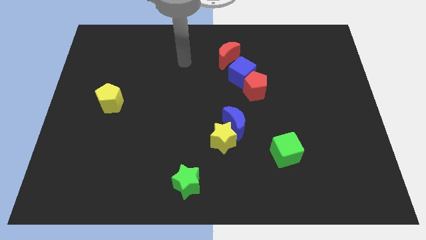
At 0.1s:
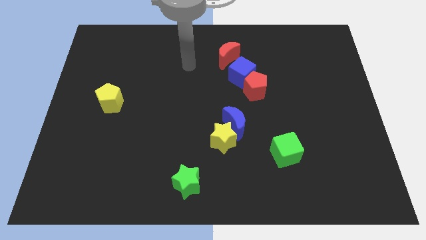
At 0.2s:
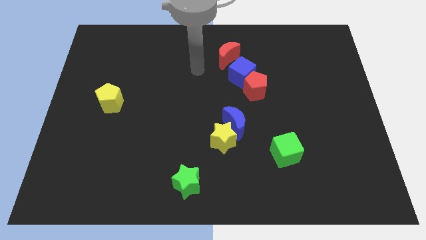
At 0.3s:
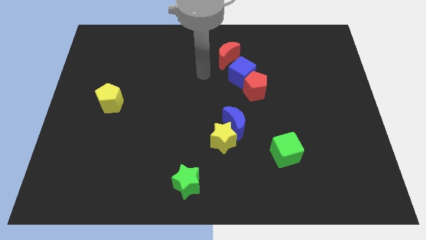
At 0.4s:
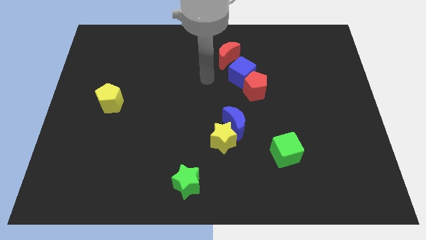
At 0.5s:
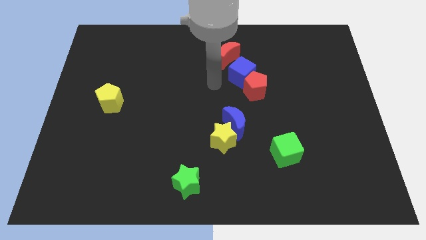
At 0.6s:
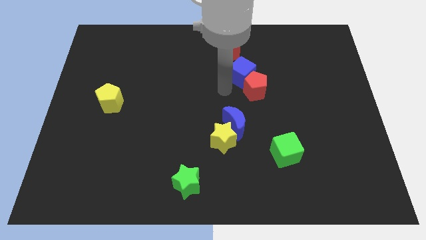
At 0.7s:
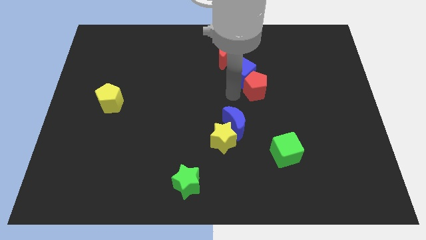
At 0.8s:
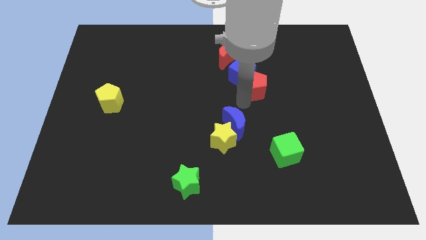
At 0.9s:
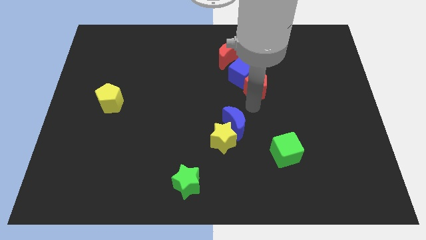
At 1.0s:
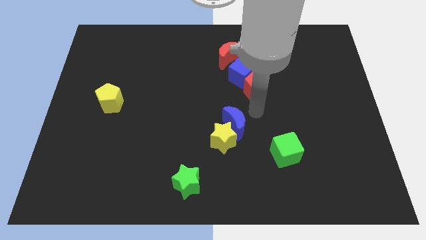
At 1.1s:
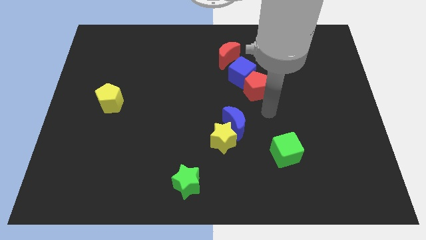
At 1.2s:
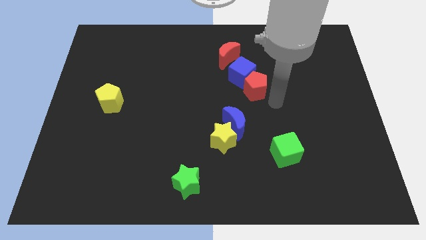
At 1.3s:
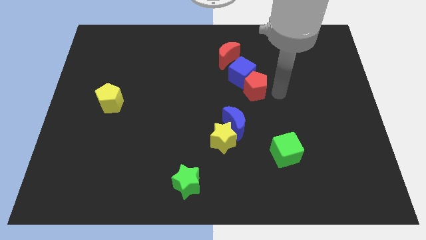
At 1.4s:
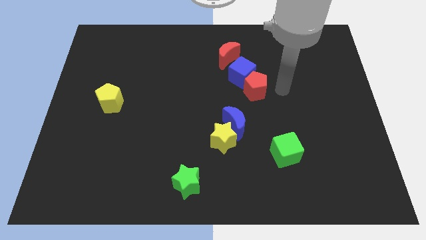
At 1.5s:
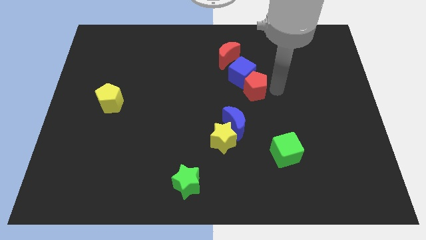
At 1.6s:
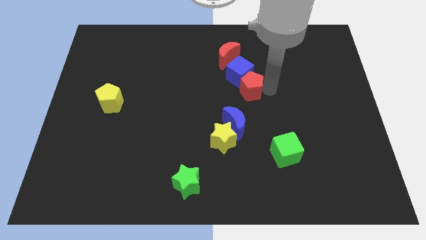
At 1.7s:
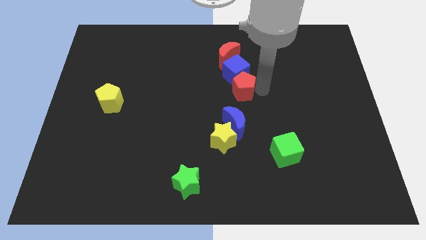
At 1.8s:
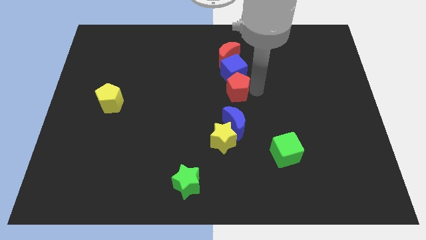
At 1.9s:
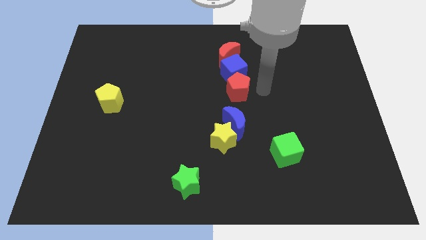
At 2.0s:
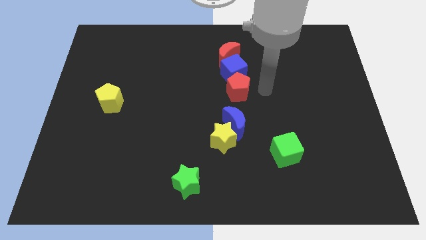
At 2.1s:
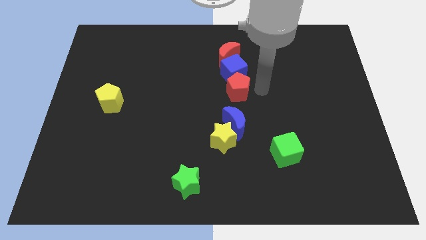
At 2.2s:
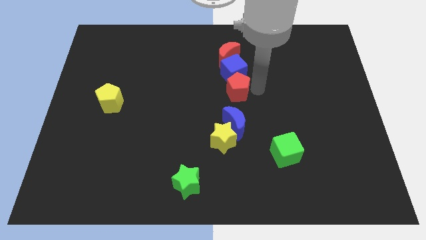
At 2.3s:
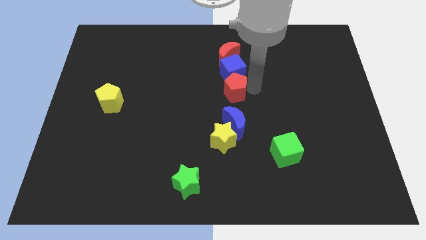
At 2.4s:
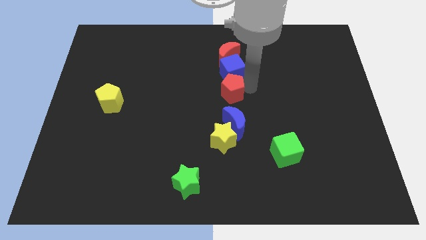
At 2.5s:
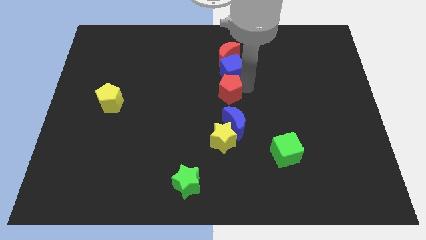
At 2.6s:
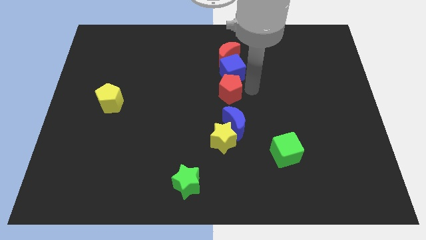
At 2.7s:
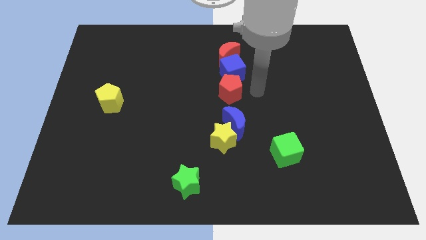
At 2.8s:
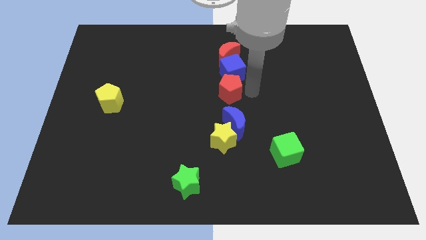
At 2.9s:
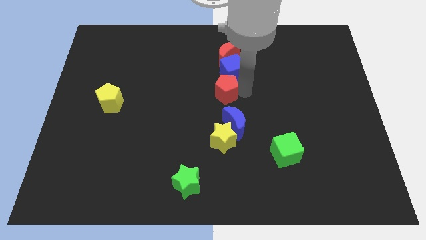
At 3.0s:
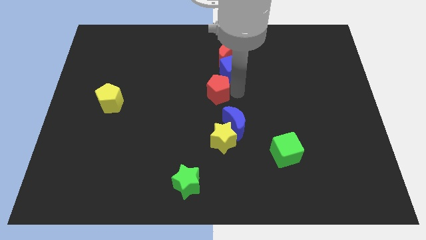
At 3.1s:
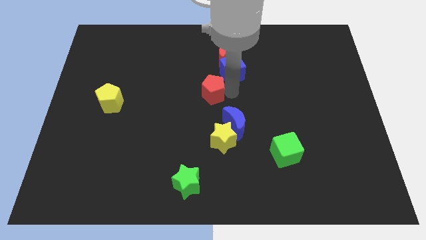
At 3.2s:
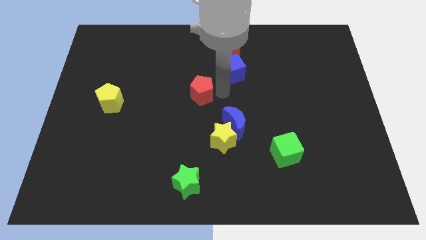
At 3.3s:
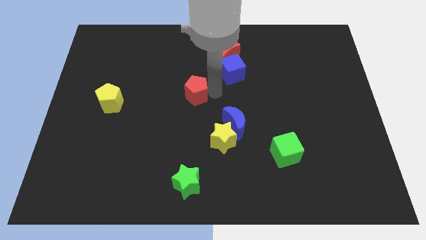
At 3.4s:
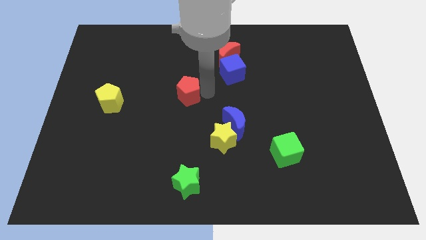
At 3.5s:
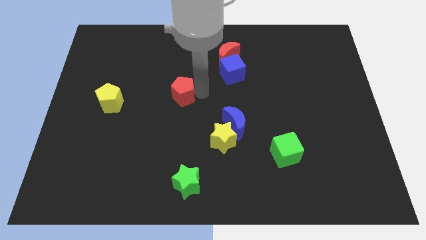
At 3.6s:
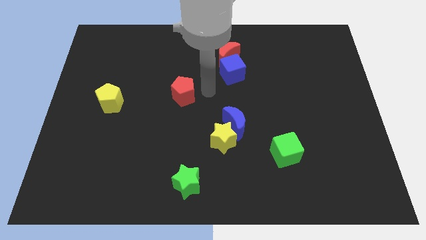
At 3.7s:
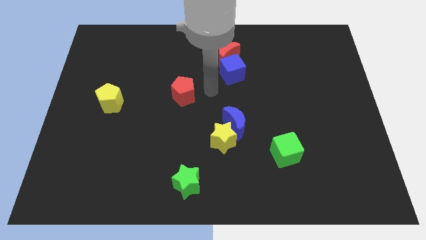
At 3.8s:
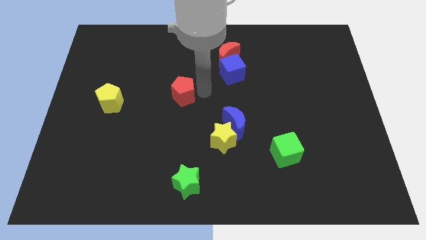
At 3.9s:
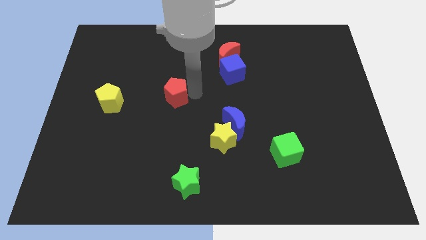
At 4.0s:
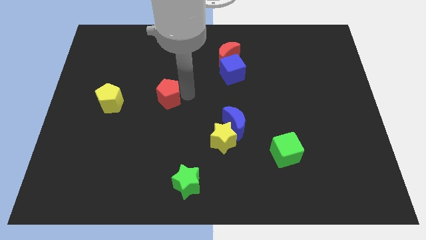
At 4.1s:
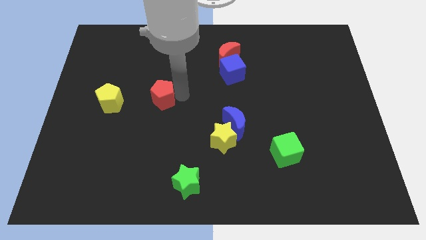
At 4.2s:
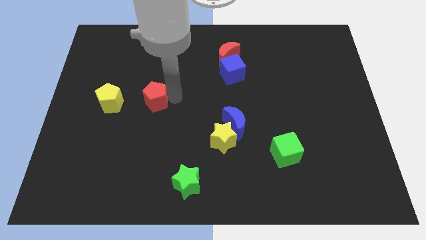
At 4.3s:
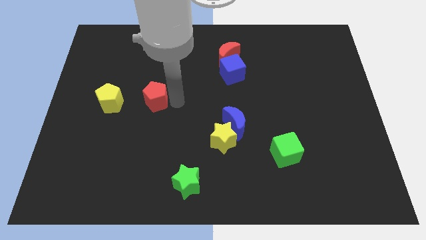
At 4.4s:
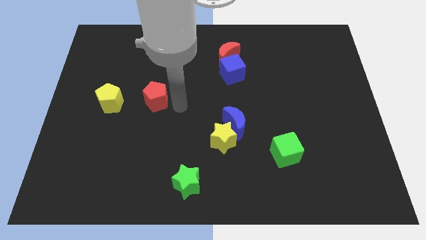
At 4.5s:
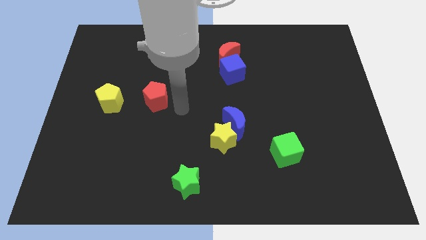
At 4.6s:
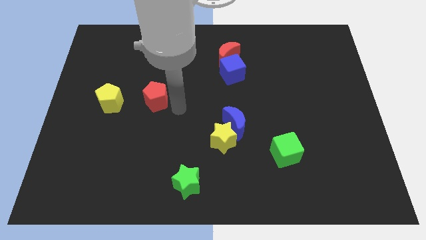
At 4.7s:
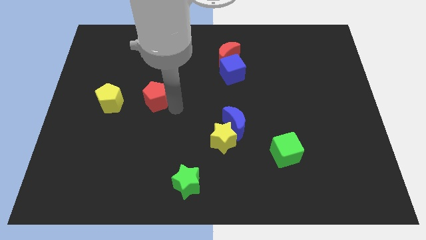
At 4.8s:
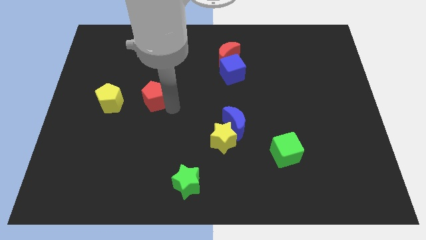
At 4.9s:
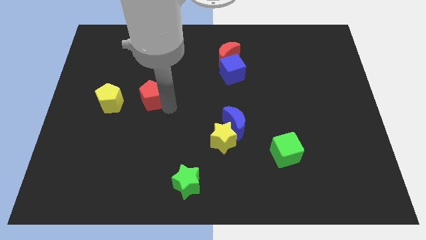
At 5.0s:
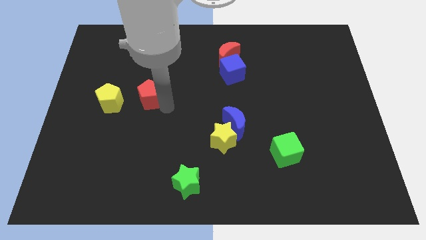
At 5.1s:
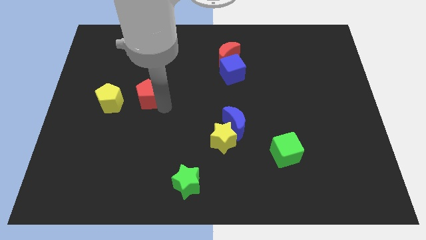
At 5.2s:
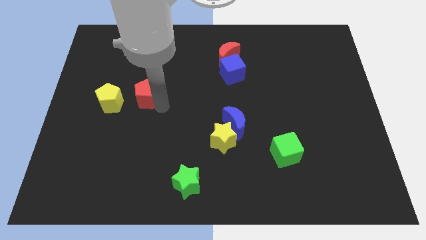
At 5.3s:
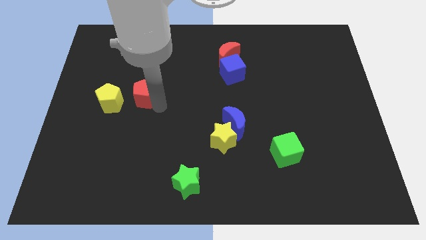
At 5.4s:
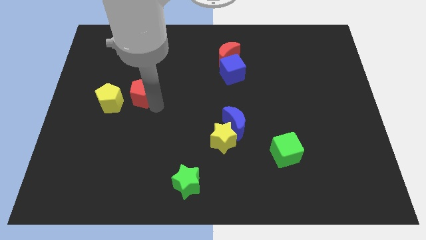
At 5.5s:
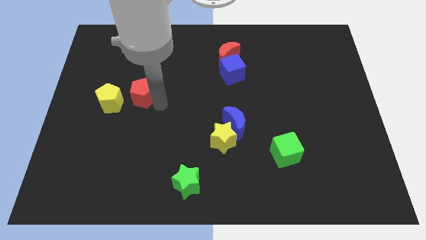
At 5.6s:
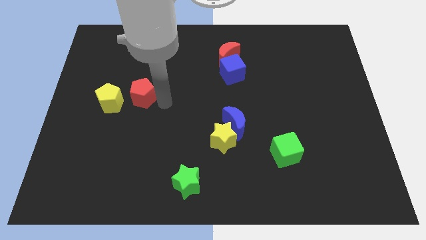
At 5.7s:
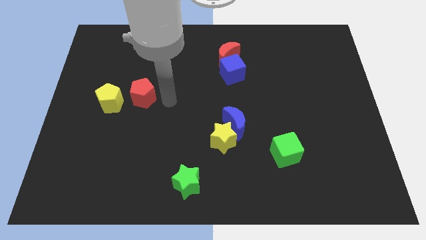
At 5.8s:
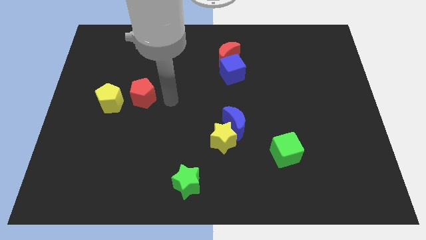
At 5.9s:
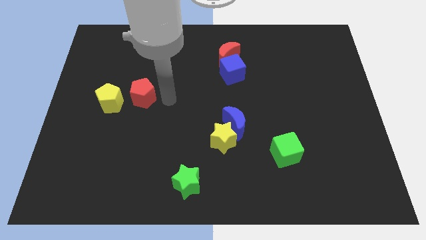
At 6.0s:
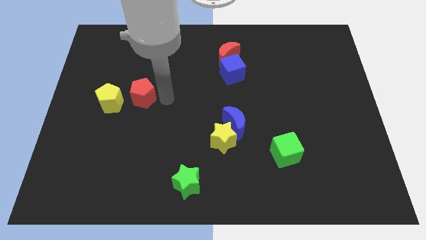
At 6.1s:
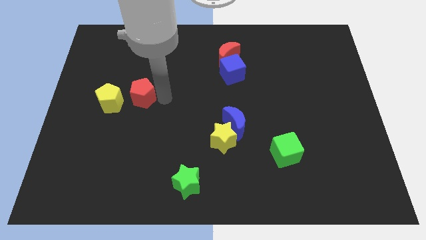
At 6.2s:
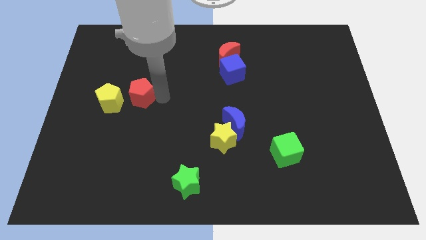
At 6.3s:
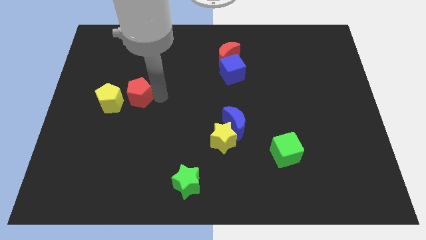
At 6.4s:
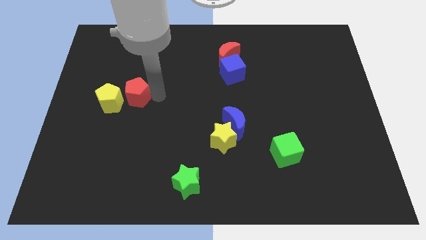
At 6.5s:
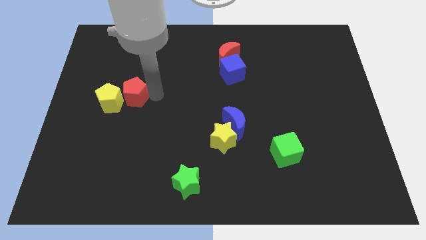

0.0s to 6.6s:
push the red pentagon towards the yellow pentagon

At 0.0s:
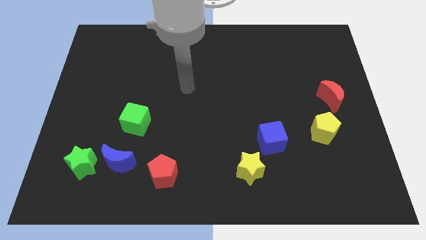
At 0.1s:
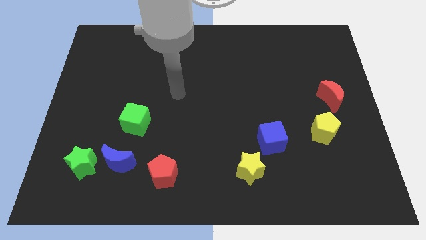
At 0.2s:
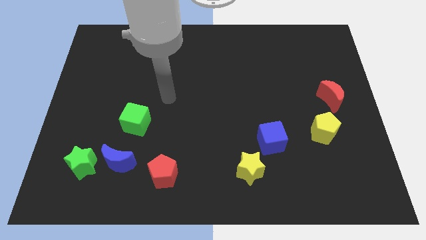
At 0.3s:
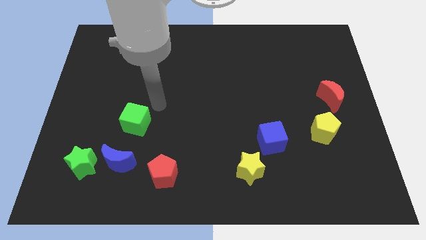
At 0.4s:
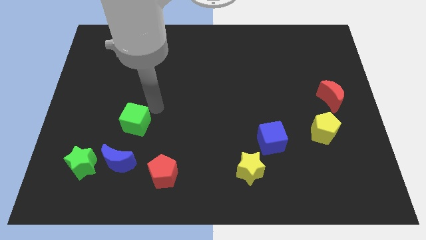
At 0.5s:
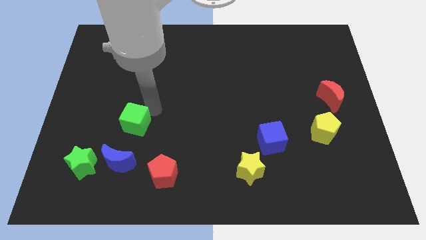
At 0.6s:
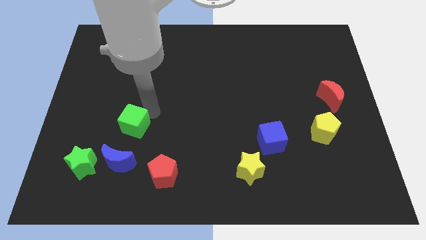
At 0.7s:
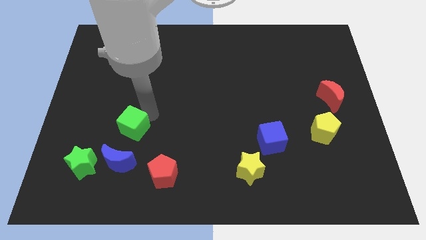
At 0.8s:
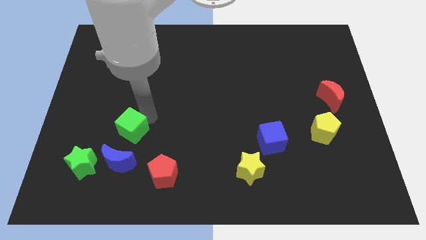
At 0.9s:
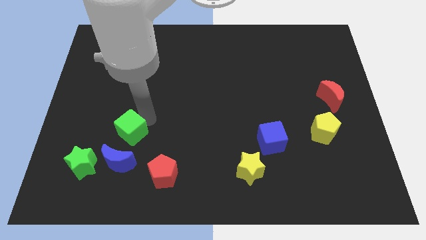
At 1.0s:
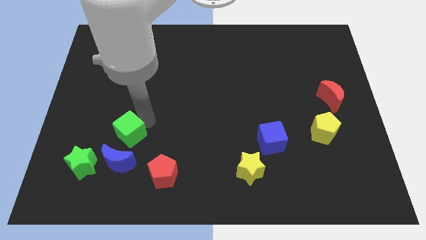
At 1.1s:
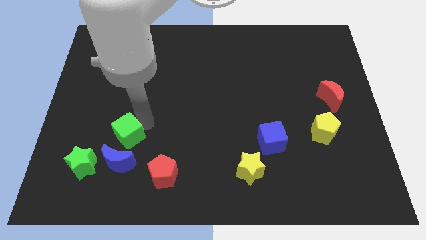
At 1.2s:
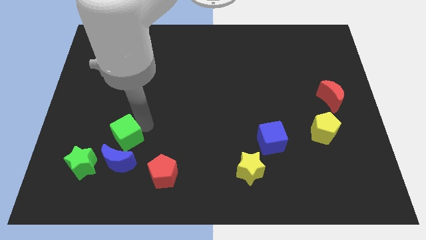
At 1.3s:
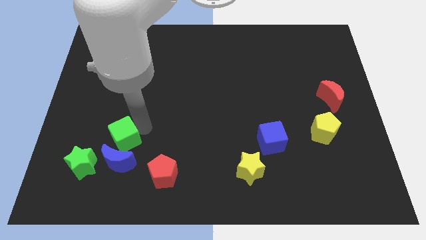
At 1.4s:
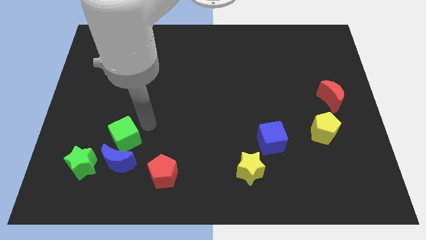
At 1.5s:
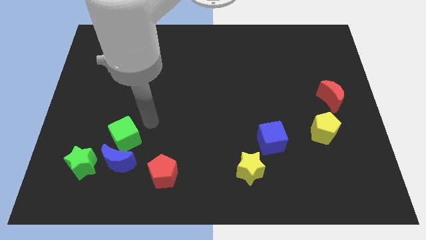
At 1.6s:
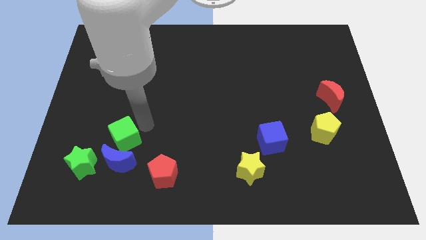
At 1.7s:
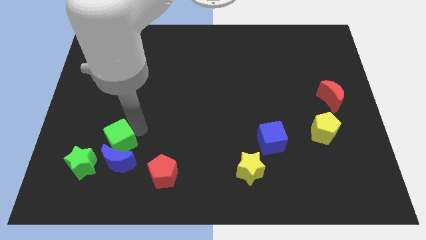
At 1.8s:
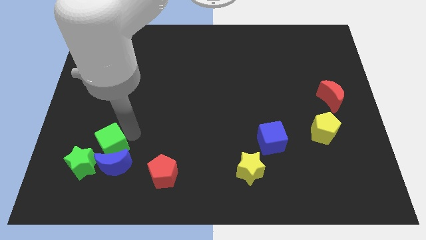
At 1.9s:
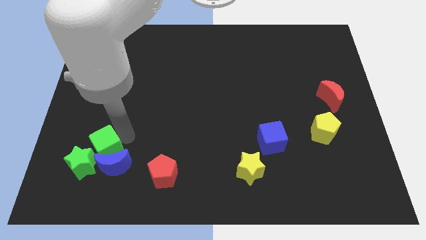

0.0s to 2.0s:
push the green cube next to the green star
